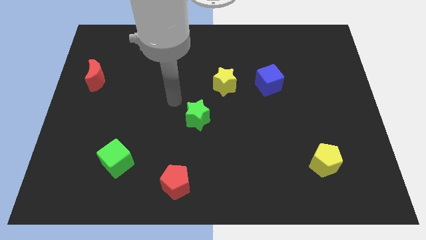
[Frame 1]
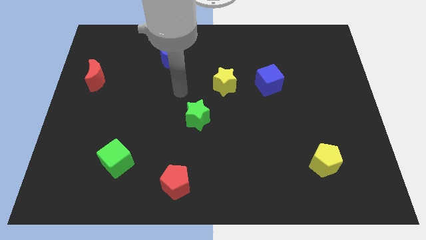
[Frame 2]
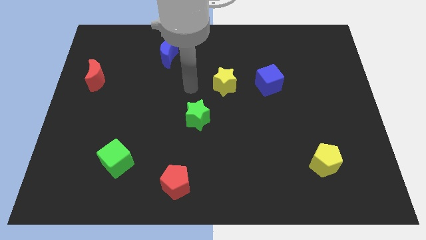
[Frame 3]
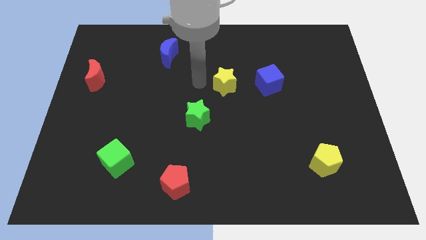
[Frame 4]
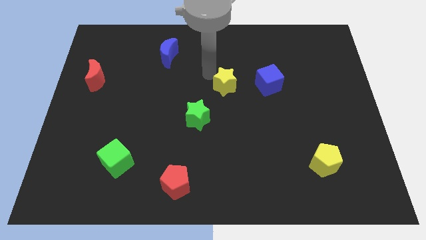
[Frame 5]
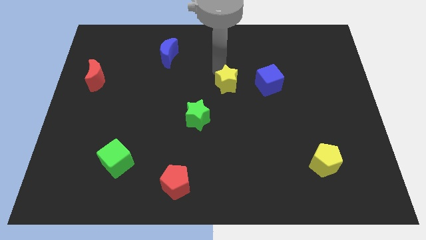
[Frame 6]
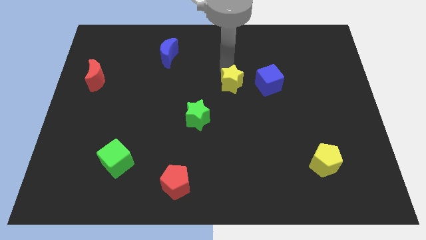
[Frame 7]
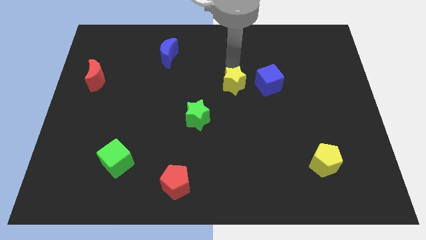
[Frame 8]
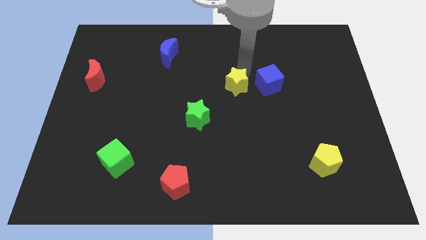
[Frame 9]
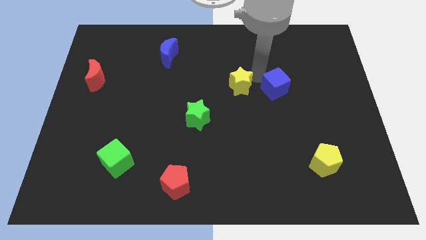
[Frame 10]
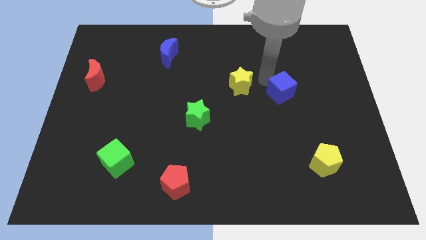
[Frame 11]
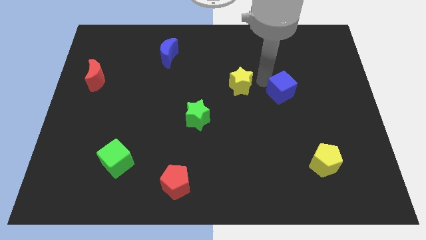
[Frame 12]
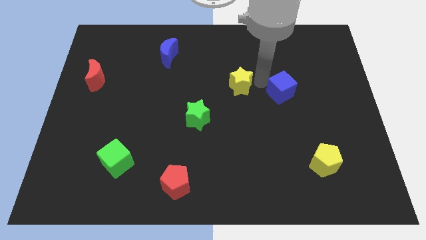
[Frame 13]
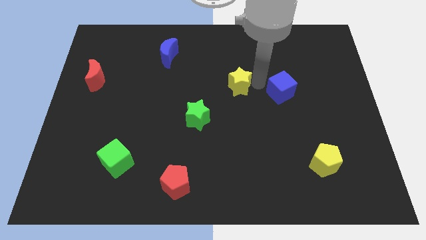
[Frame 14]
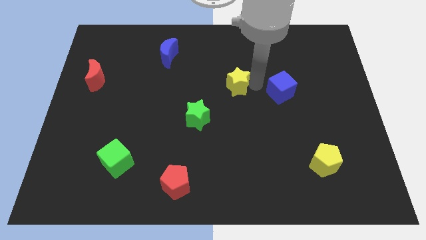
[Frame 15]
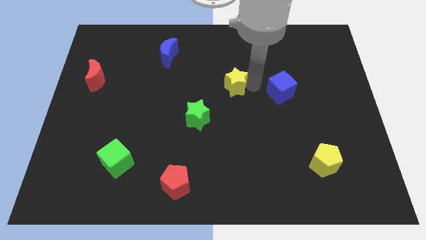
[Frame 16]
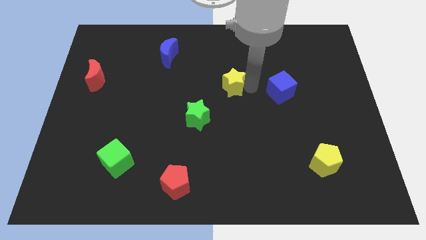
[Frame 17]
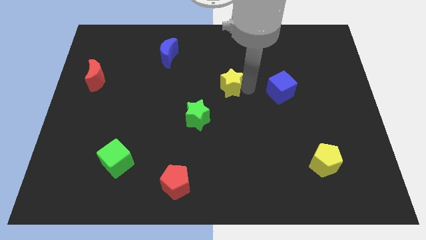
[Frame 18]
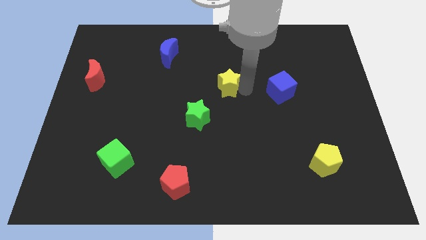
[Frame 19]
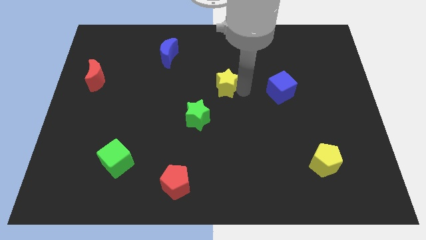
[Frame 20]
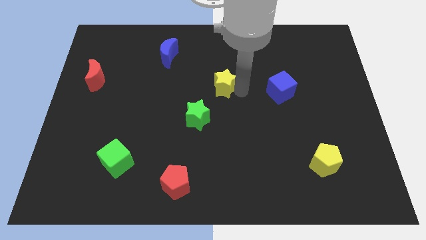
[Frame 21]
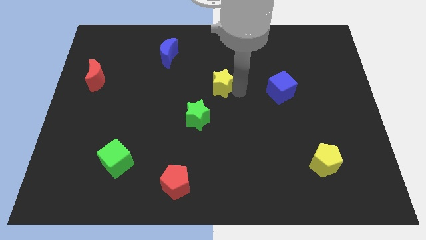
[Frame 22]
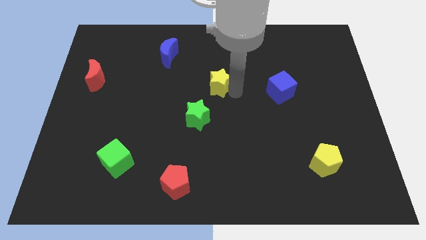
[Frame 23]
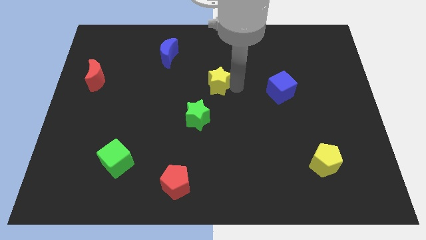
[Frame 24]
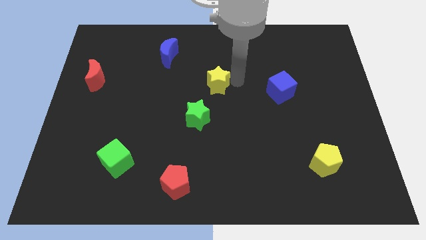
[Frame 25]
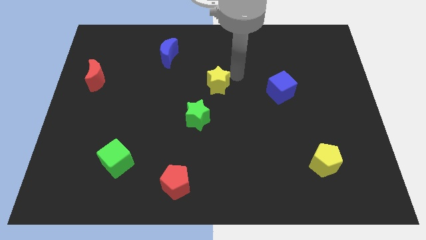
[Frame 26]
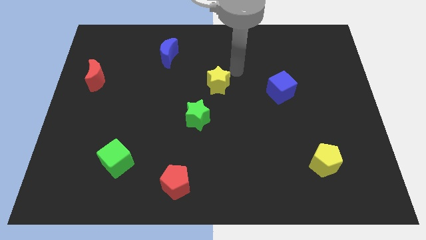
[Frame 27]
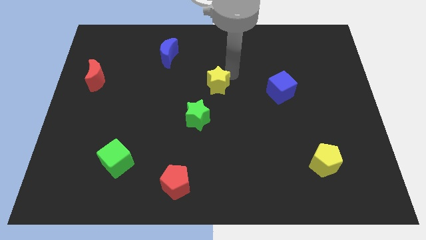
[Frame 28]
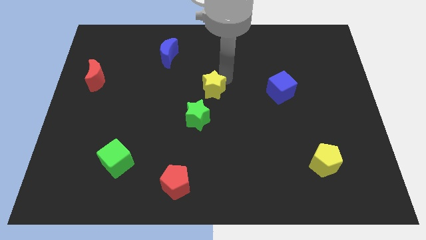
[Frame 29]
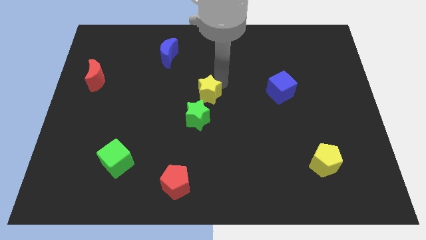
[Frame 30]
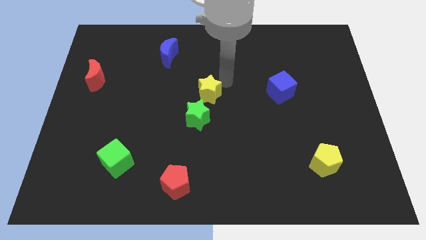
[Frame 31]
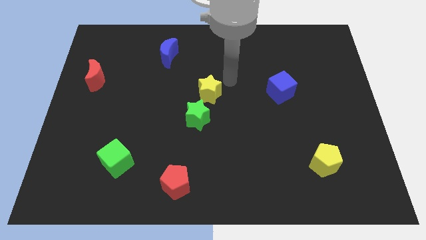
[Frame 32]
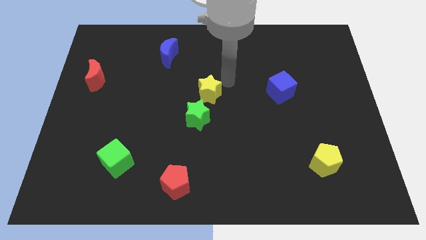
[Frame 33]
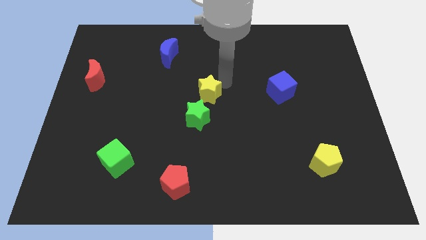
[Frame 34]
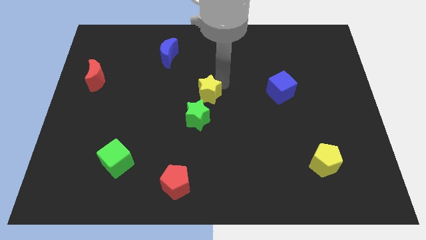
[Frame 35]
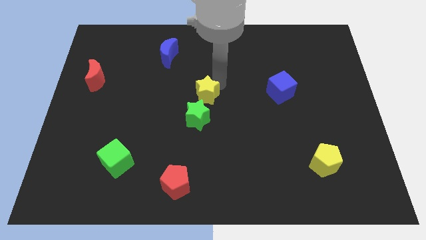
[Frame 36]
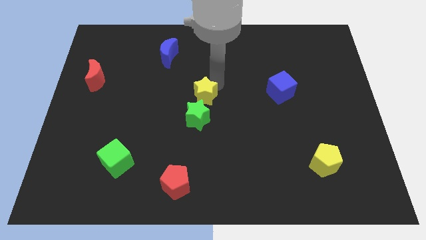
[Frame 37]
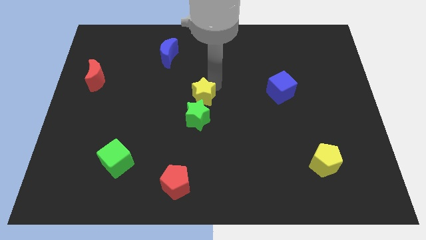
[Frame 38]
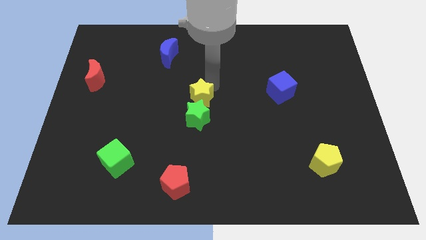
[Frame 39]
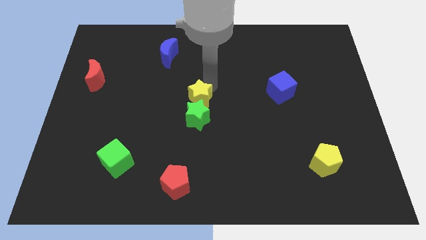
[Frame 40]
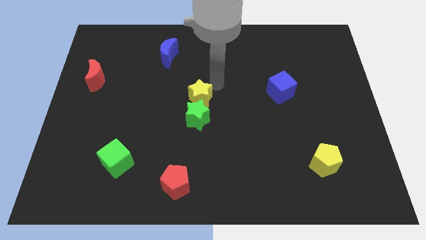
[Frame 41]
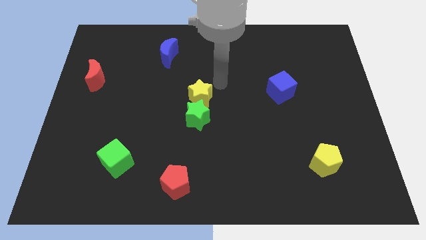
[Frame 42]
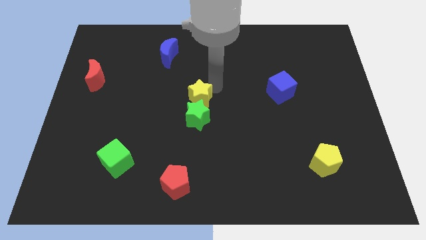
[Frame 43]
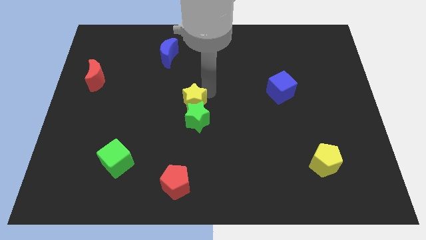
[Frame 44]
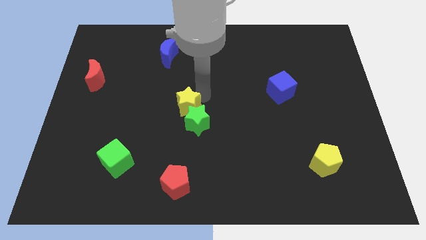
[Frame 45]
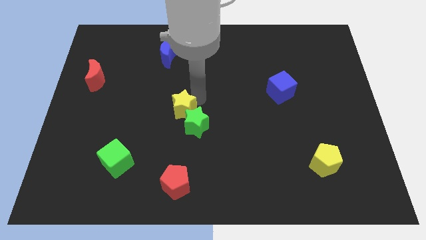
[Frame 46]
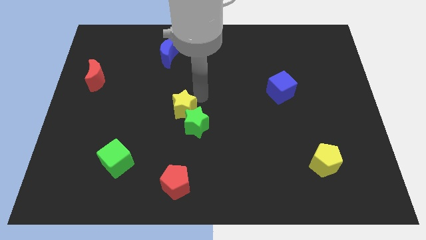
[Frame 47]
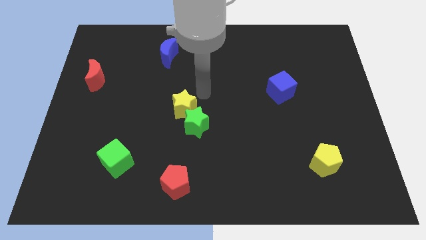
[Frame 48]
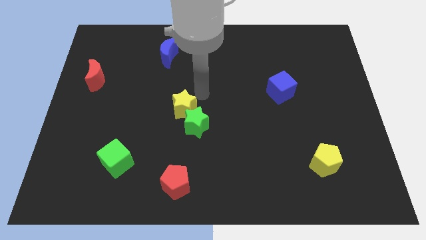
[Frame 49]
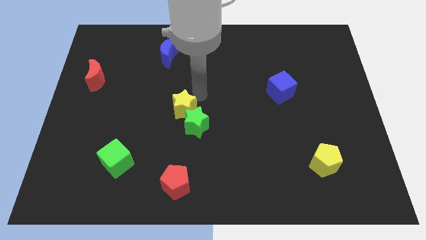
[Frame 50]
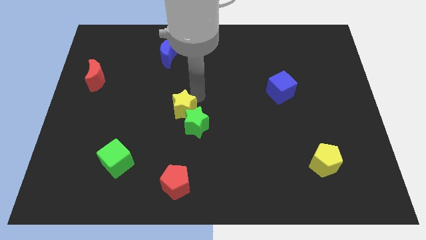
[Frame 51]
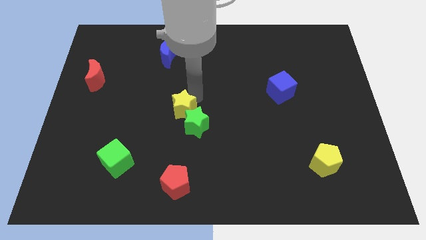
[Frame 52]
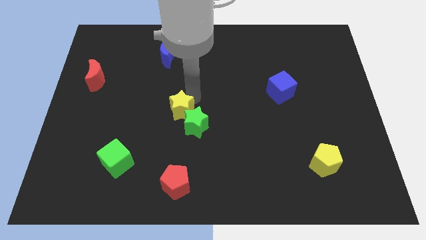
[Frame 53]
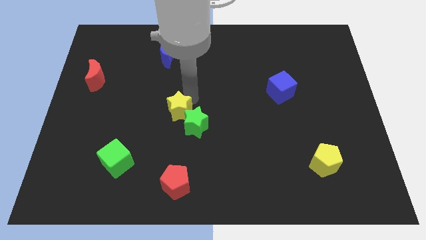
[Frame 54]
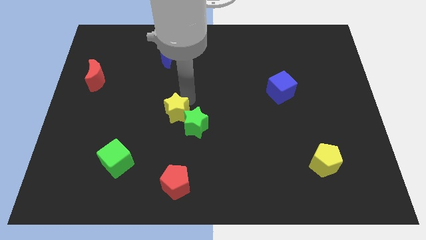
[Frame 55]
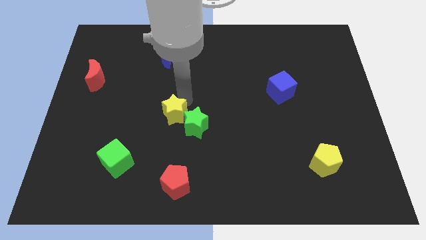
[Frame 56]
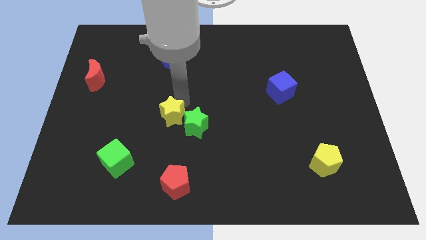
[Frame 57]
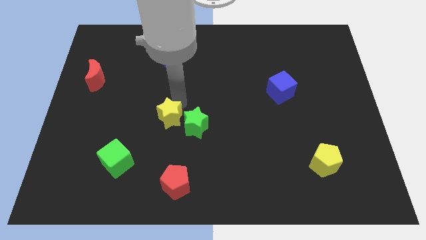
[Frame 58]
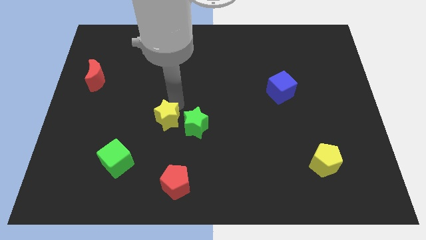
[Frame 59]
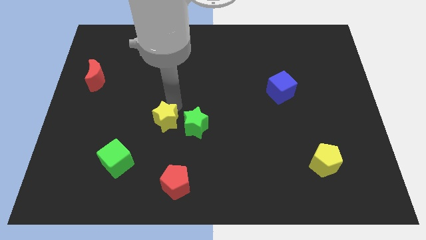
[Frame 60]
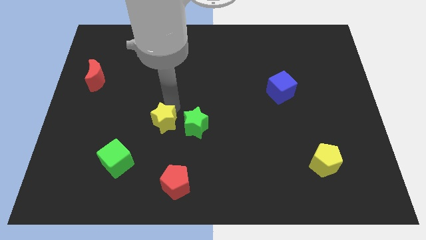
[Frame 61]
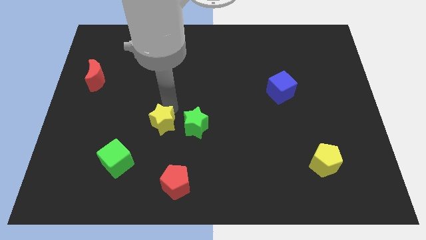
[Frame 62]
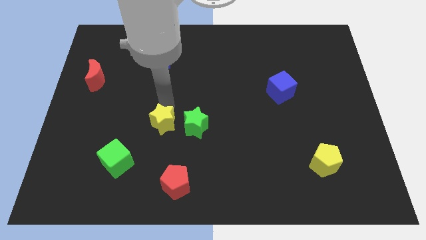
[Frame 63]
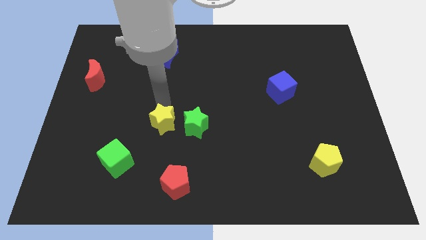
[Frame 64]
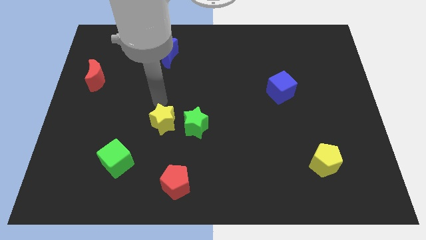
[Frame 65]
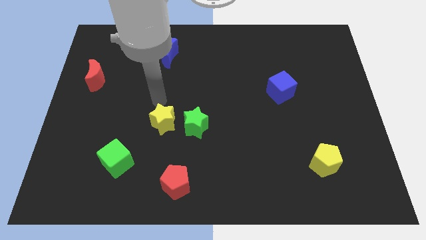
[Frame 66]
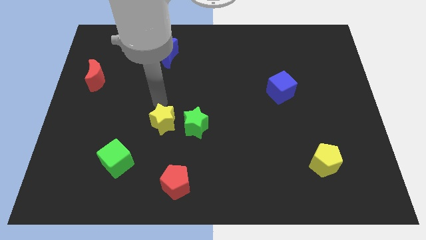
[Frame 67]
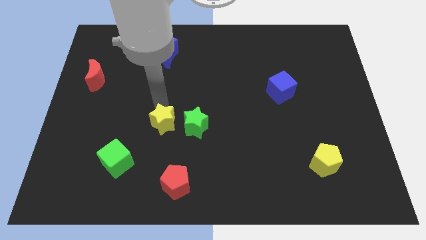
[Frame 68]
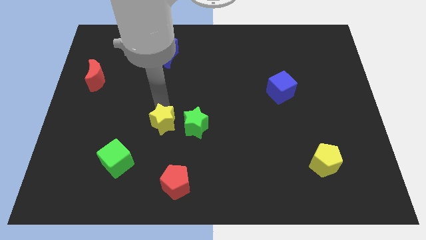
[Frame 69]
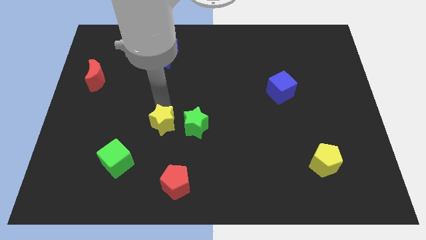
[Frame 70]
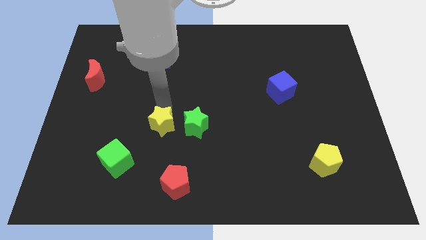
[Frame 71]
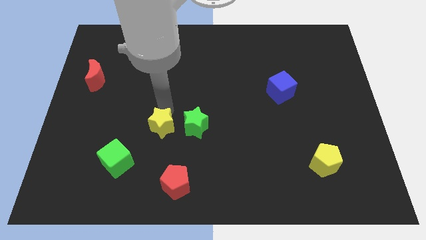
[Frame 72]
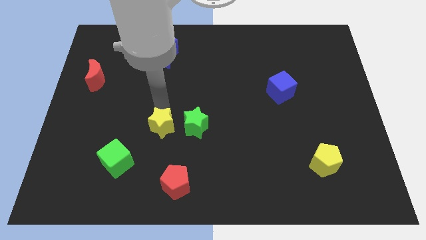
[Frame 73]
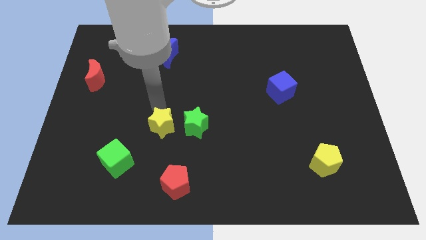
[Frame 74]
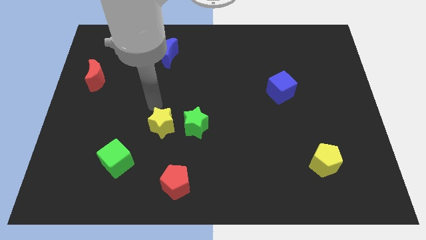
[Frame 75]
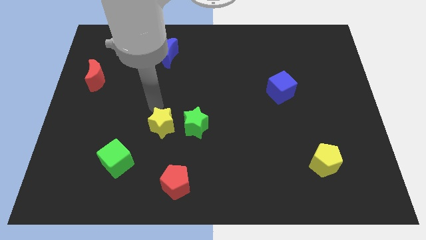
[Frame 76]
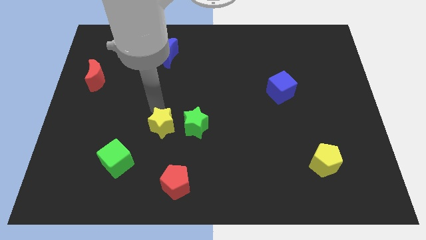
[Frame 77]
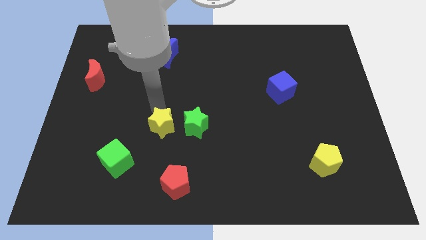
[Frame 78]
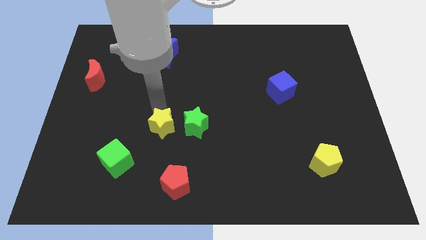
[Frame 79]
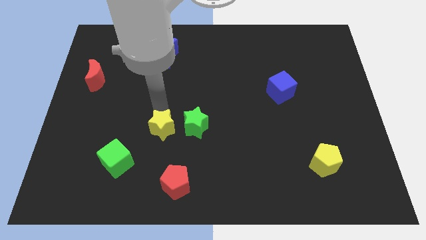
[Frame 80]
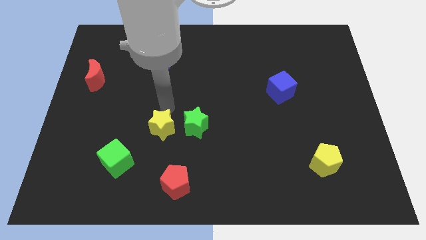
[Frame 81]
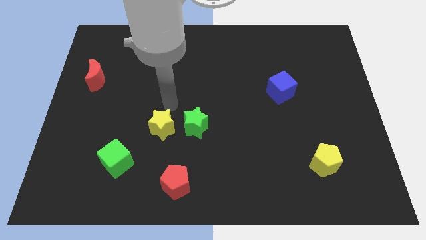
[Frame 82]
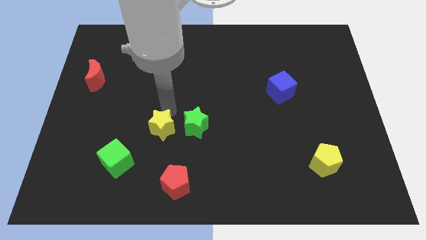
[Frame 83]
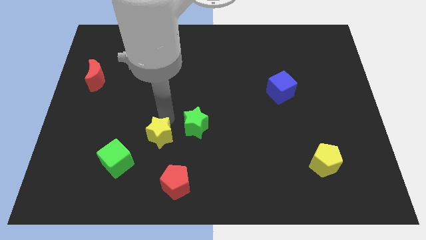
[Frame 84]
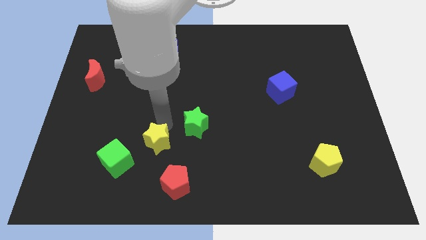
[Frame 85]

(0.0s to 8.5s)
put the yellow star to the top left side of the red pentagon
